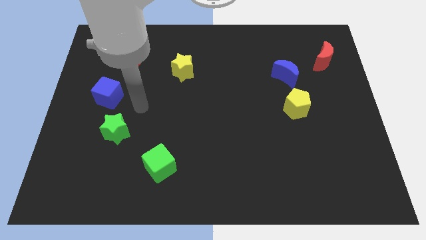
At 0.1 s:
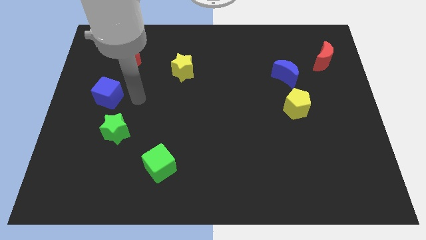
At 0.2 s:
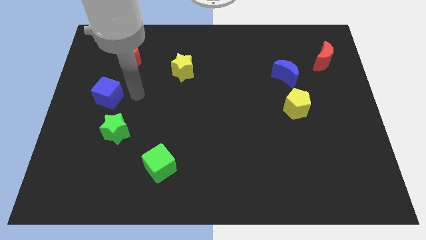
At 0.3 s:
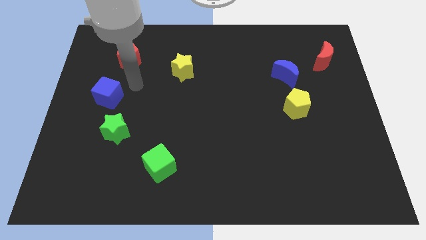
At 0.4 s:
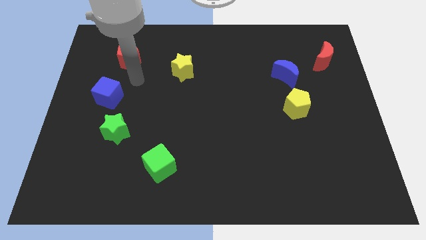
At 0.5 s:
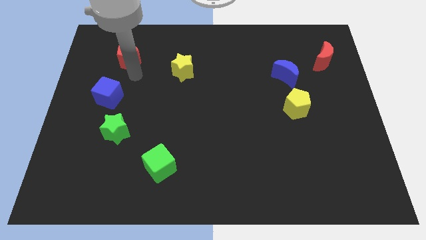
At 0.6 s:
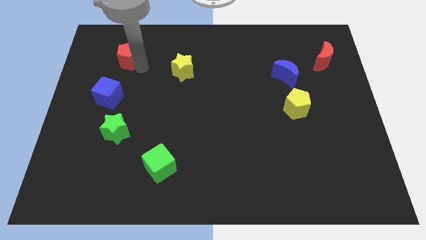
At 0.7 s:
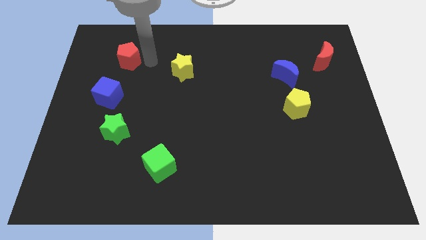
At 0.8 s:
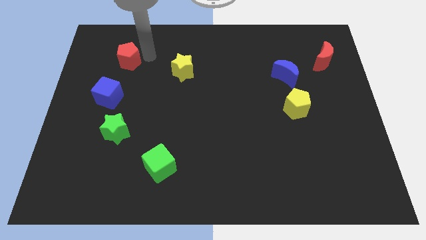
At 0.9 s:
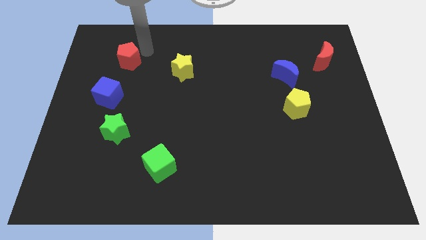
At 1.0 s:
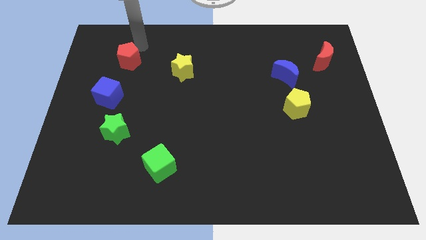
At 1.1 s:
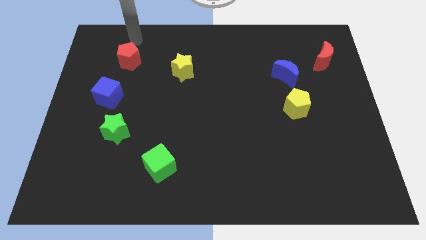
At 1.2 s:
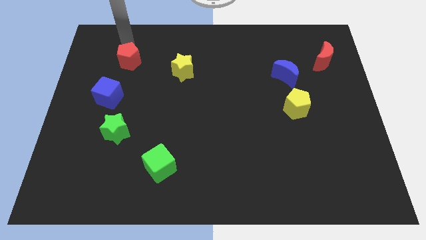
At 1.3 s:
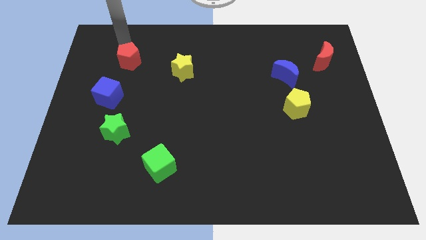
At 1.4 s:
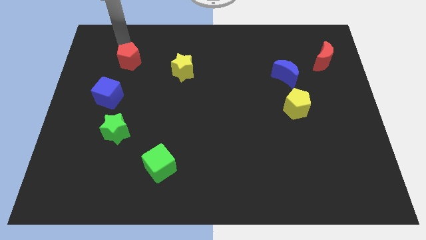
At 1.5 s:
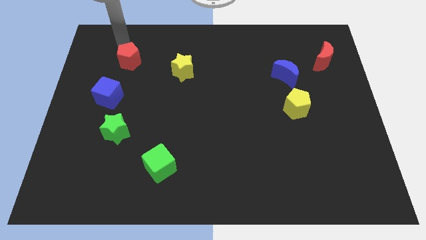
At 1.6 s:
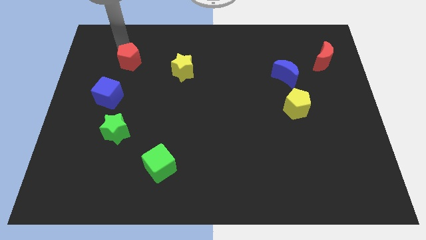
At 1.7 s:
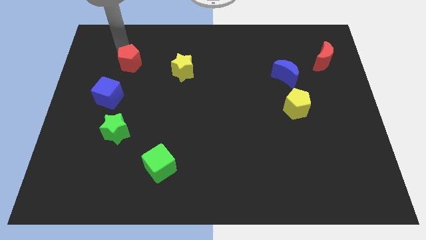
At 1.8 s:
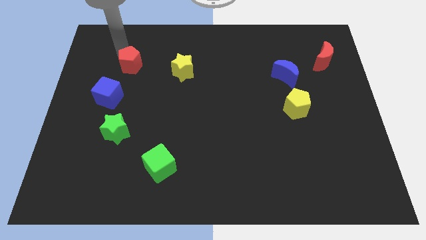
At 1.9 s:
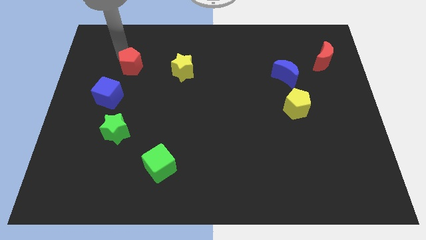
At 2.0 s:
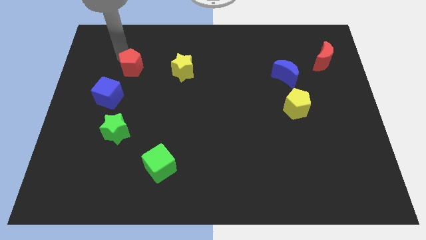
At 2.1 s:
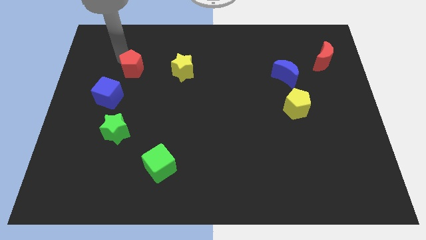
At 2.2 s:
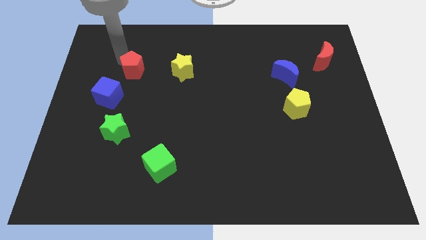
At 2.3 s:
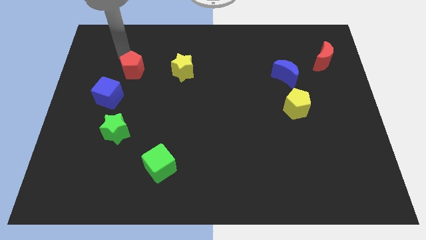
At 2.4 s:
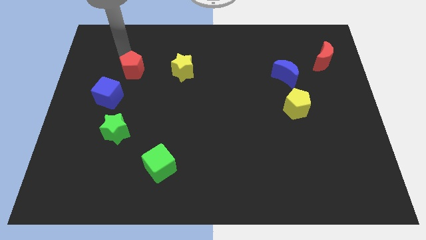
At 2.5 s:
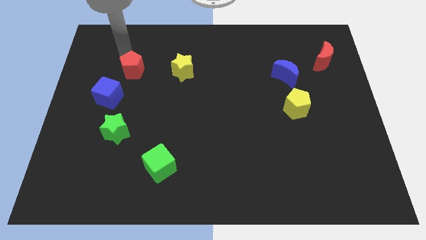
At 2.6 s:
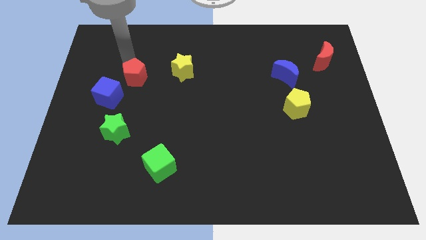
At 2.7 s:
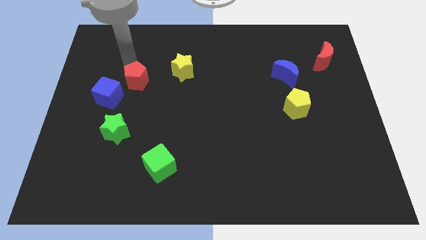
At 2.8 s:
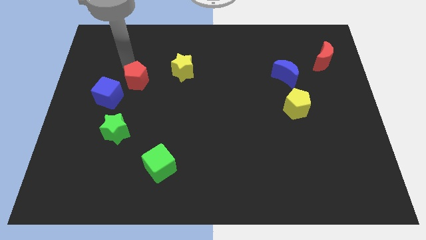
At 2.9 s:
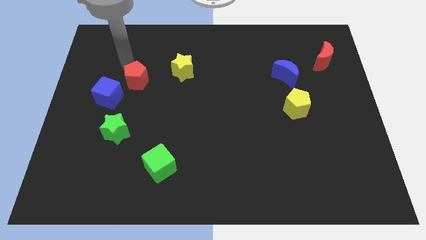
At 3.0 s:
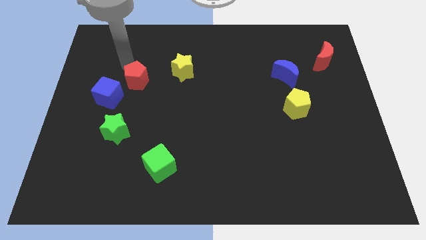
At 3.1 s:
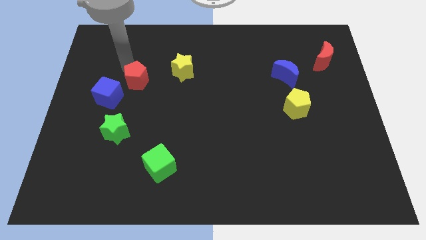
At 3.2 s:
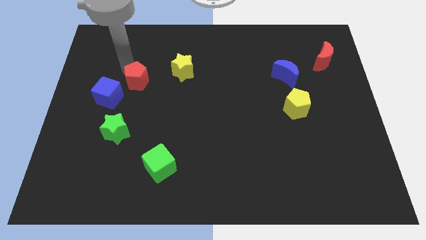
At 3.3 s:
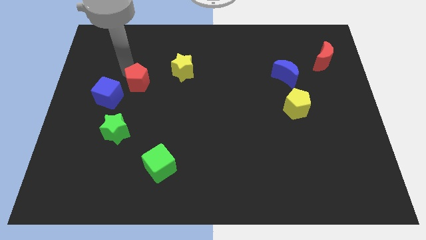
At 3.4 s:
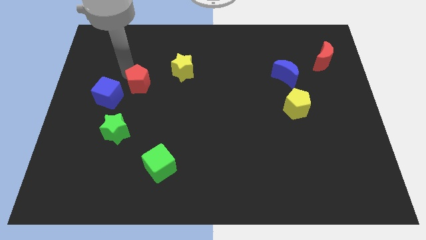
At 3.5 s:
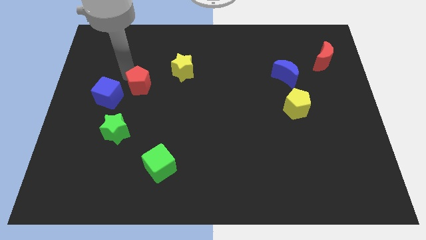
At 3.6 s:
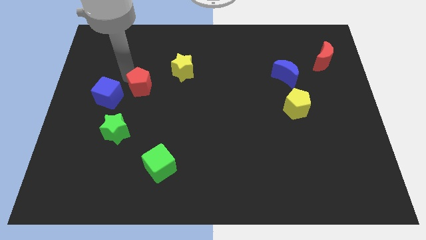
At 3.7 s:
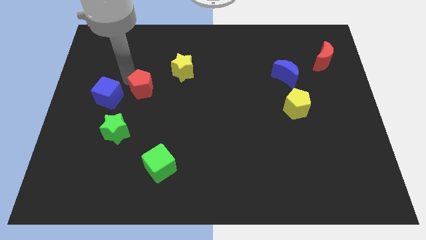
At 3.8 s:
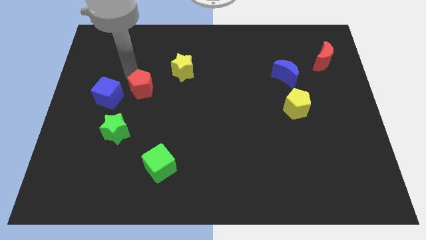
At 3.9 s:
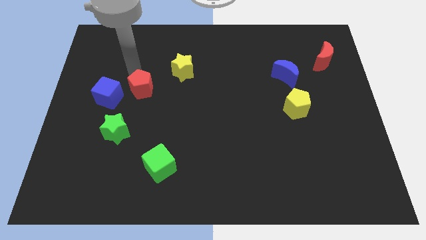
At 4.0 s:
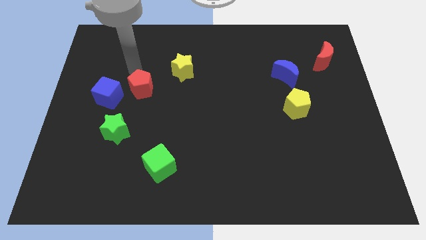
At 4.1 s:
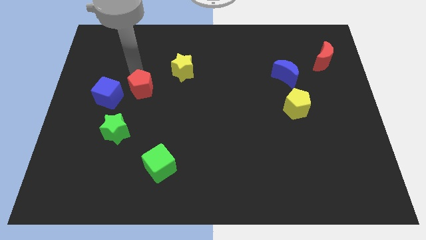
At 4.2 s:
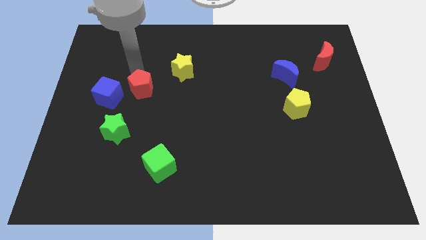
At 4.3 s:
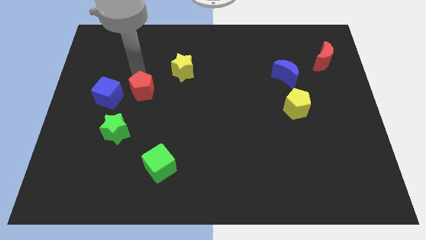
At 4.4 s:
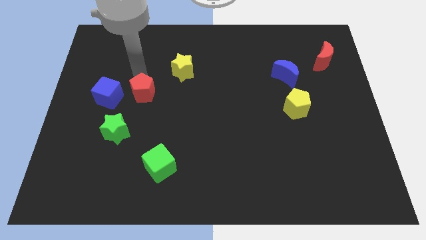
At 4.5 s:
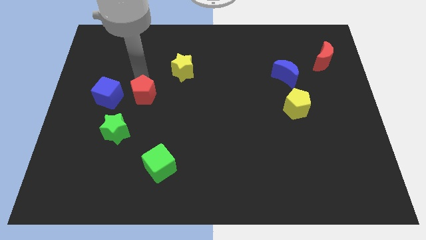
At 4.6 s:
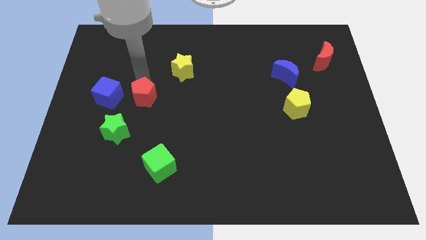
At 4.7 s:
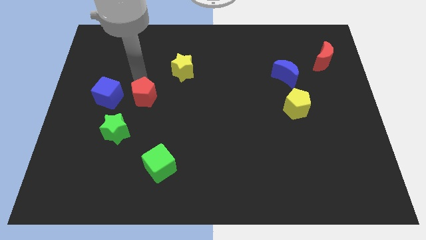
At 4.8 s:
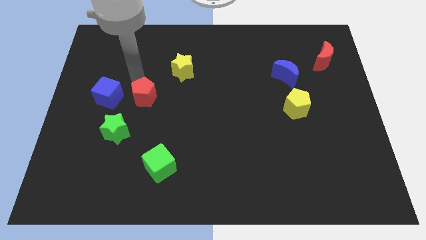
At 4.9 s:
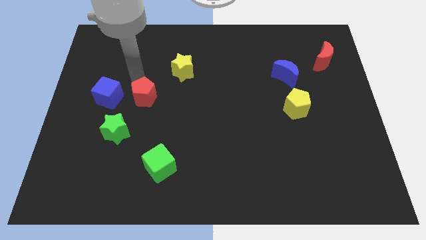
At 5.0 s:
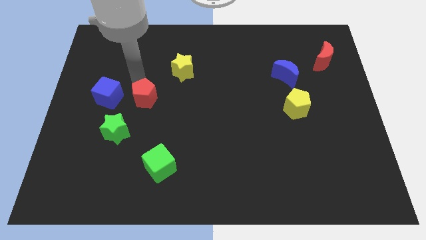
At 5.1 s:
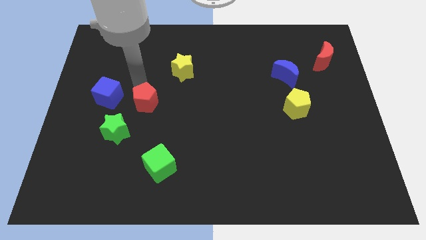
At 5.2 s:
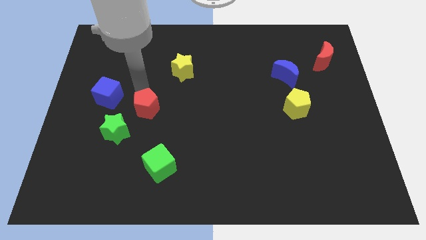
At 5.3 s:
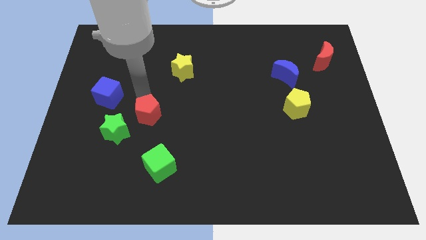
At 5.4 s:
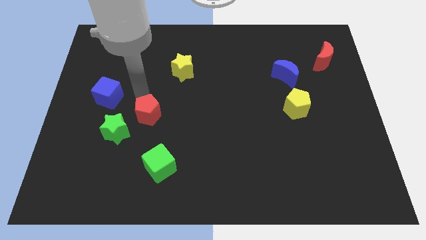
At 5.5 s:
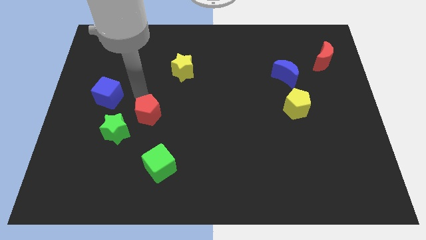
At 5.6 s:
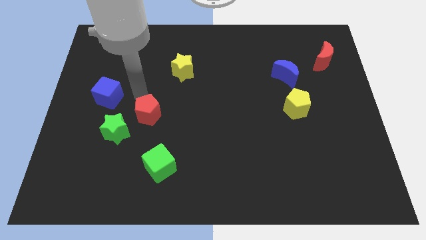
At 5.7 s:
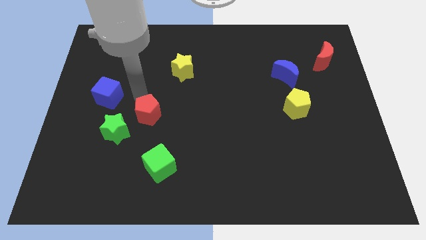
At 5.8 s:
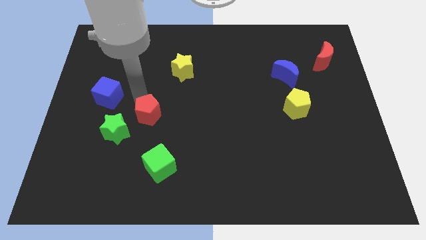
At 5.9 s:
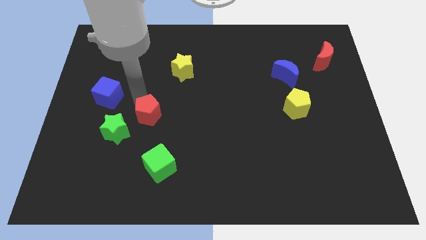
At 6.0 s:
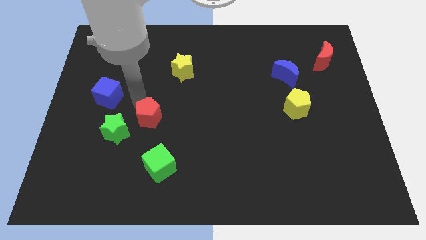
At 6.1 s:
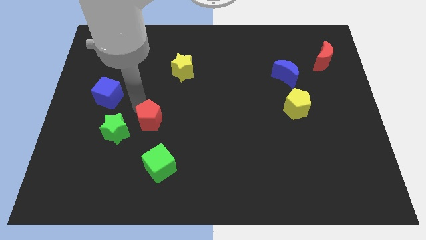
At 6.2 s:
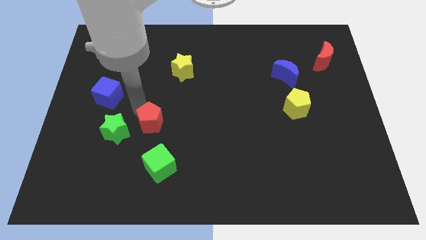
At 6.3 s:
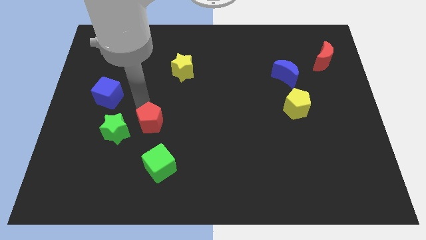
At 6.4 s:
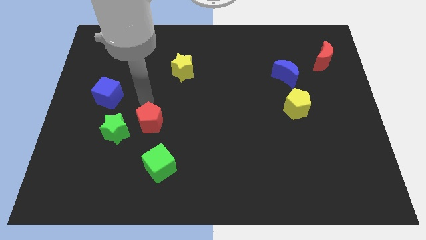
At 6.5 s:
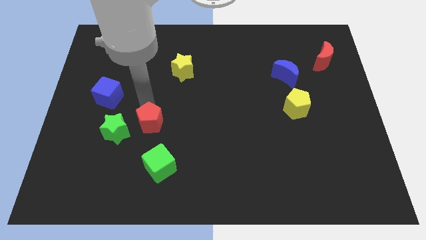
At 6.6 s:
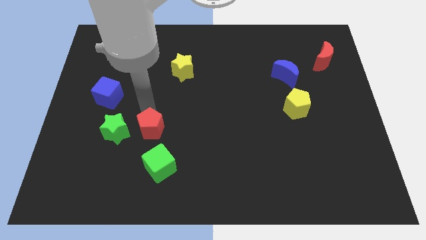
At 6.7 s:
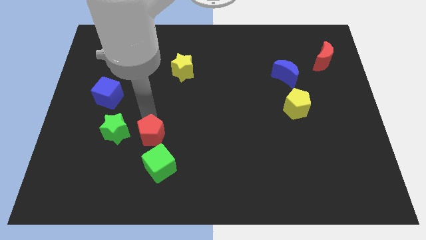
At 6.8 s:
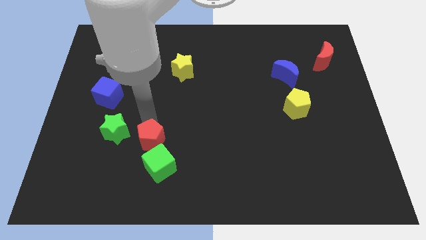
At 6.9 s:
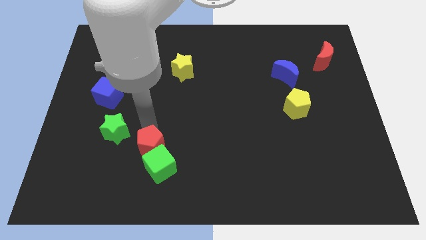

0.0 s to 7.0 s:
put the red pentagon to the green cube

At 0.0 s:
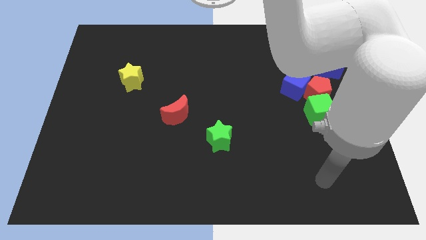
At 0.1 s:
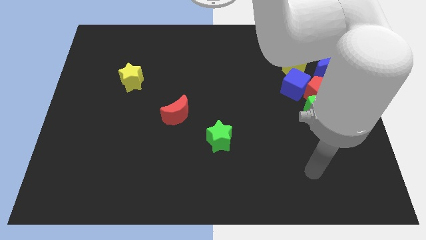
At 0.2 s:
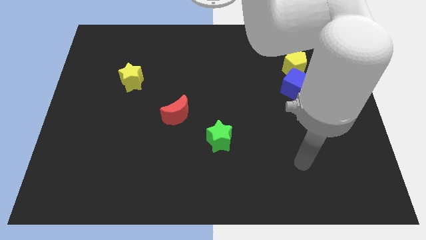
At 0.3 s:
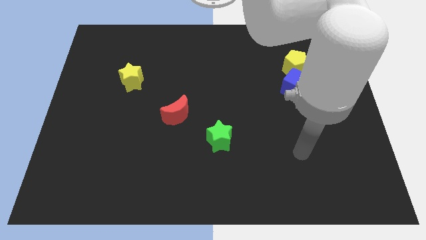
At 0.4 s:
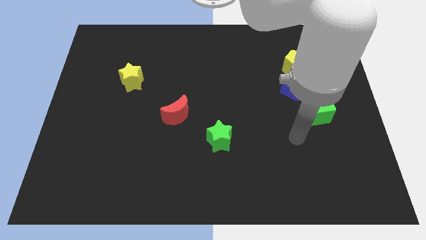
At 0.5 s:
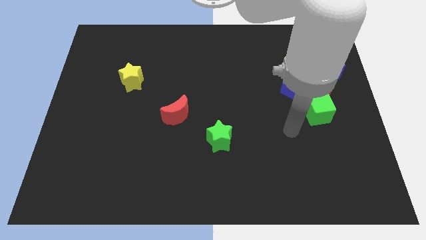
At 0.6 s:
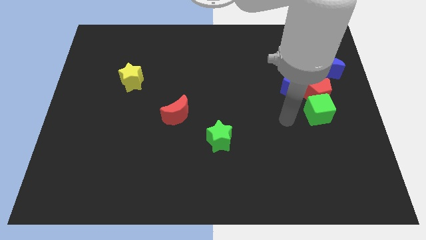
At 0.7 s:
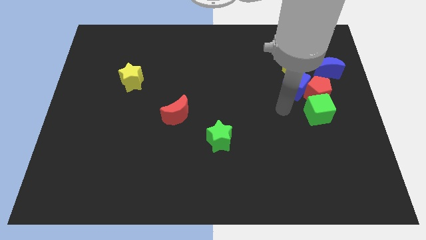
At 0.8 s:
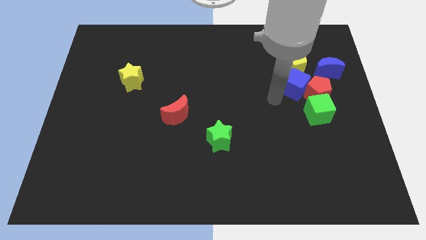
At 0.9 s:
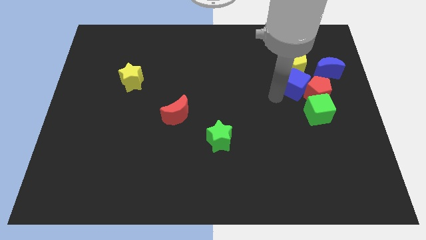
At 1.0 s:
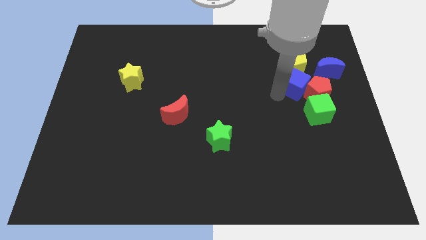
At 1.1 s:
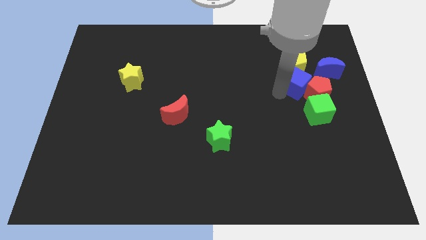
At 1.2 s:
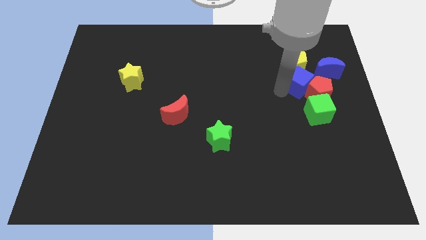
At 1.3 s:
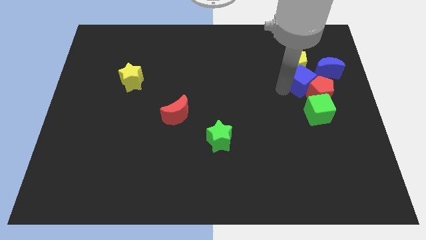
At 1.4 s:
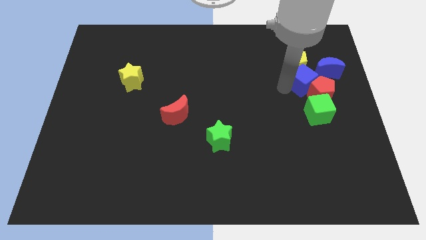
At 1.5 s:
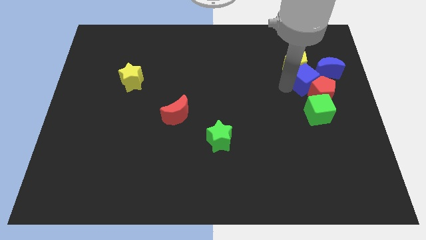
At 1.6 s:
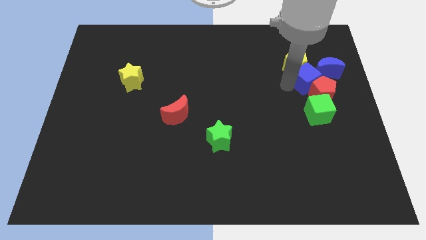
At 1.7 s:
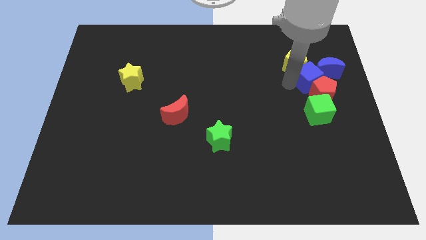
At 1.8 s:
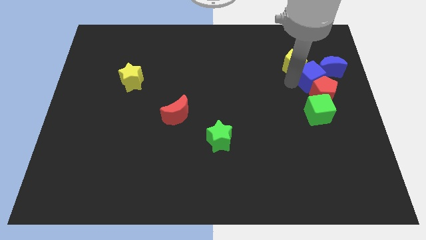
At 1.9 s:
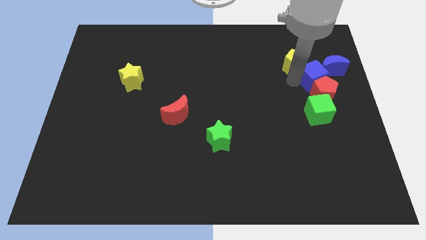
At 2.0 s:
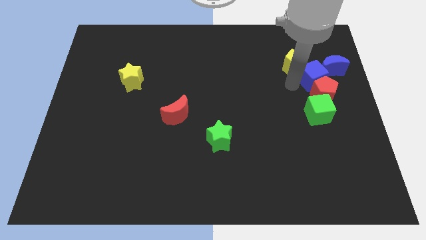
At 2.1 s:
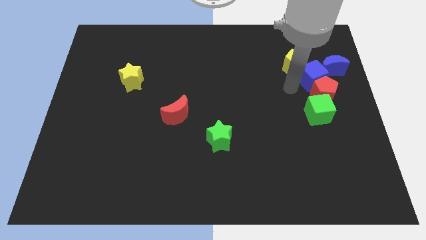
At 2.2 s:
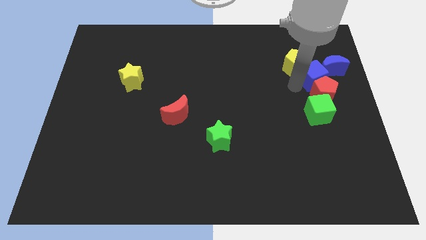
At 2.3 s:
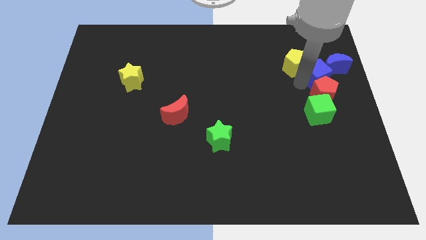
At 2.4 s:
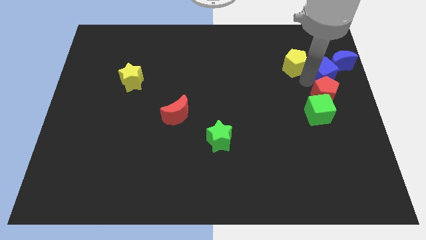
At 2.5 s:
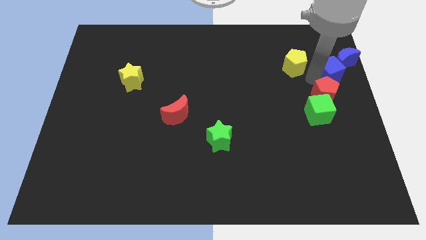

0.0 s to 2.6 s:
put the blue cube close to the blue moon
